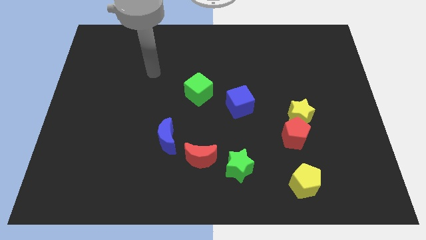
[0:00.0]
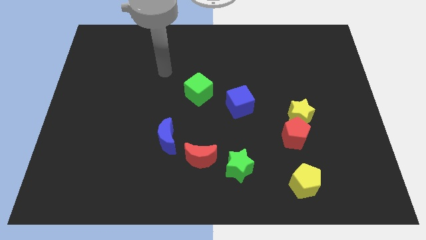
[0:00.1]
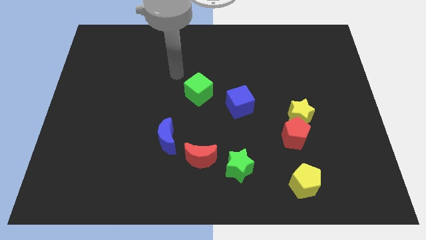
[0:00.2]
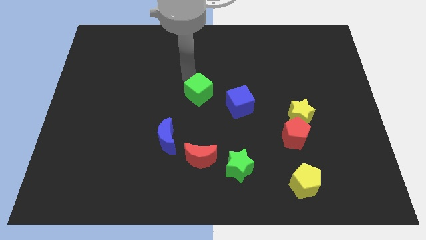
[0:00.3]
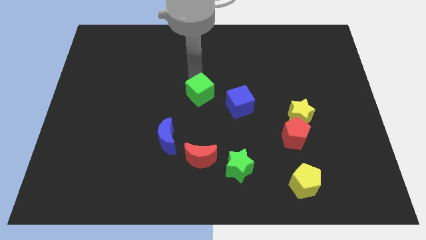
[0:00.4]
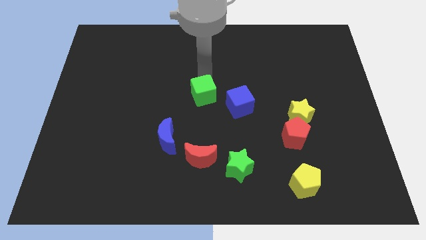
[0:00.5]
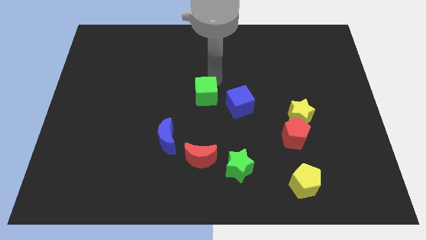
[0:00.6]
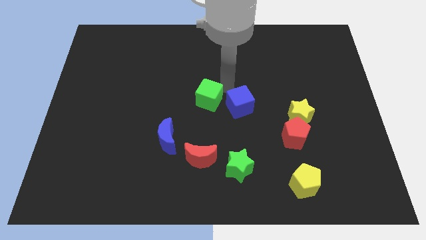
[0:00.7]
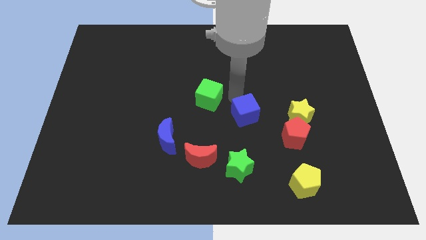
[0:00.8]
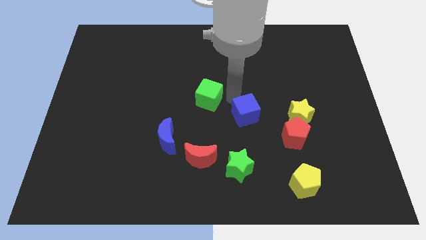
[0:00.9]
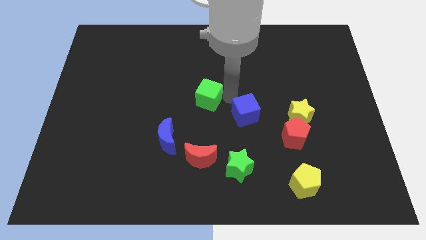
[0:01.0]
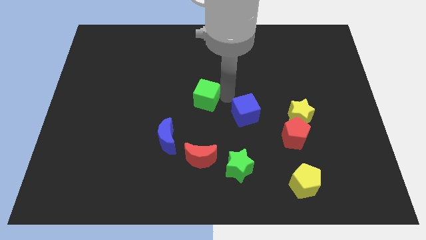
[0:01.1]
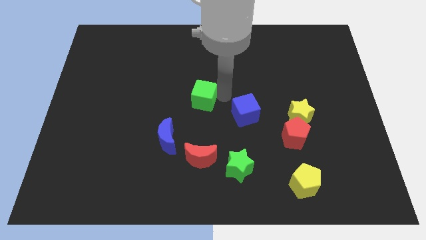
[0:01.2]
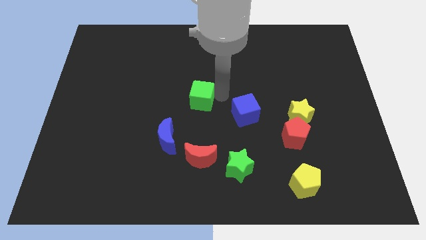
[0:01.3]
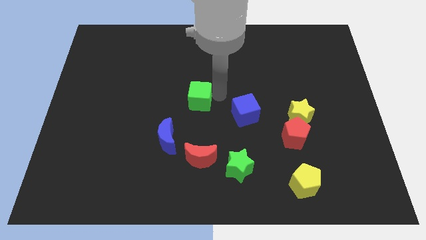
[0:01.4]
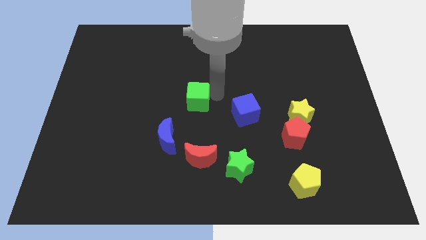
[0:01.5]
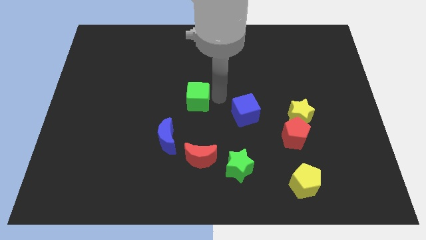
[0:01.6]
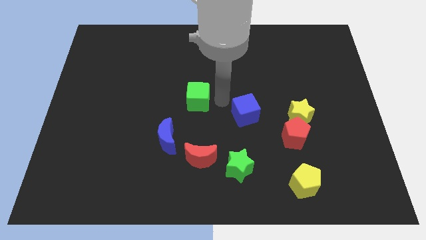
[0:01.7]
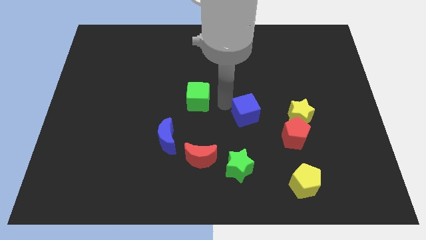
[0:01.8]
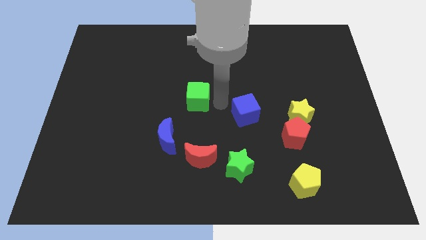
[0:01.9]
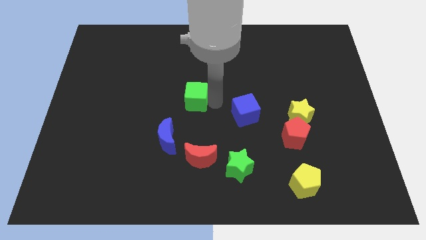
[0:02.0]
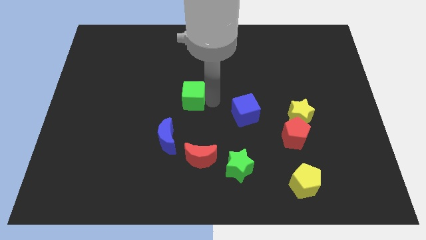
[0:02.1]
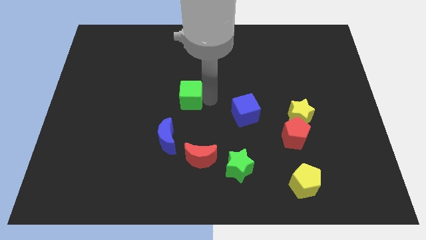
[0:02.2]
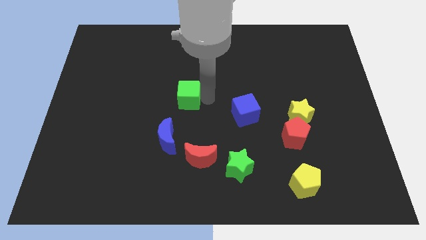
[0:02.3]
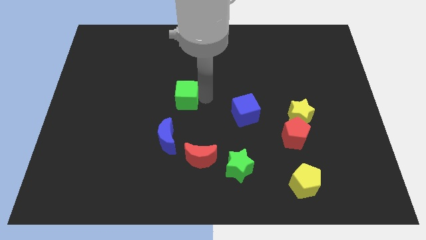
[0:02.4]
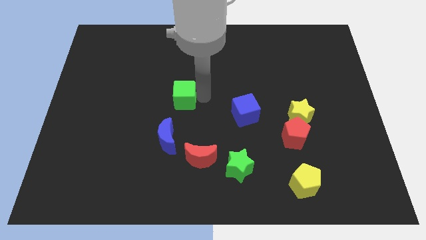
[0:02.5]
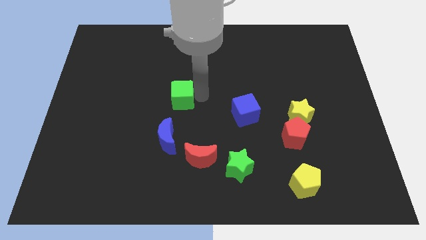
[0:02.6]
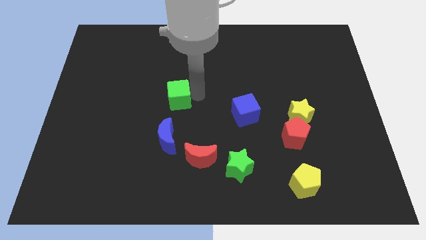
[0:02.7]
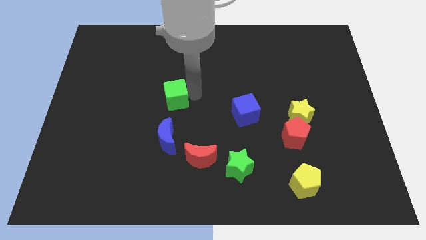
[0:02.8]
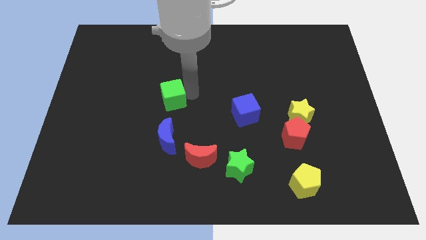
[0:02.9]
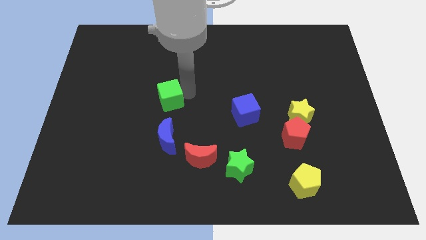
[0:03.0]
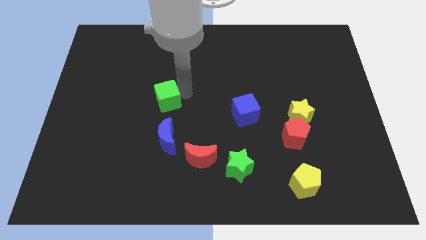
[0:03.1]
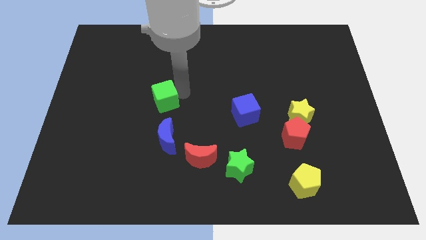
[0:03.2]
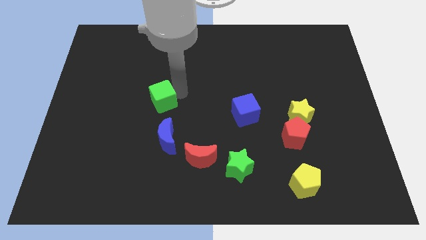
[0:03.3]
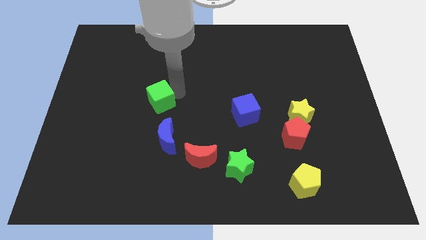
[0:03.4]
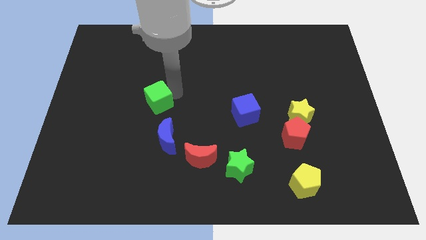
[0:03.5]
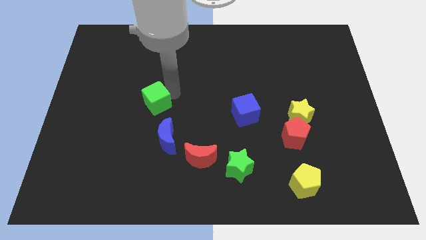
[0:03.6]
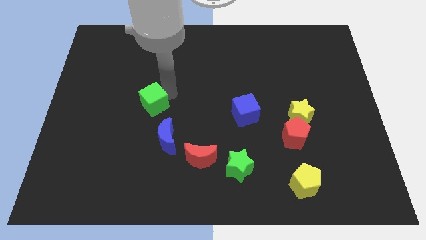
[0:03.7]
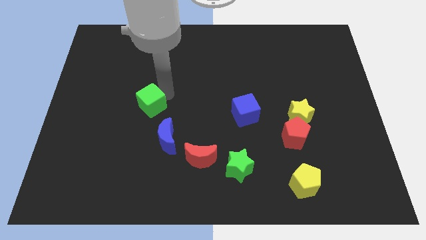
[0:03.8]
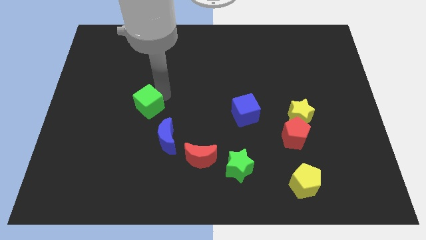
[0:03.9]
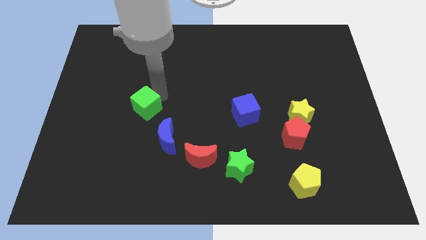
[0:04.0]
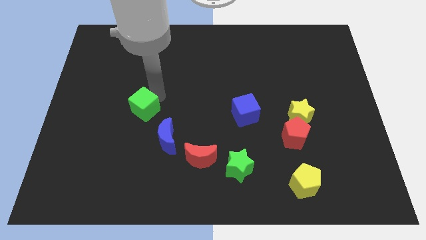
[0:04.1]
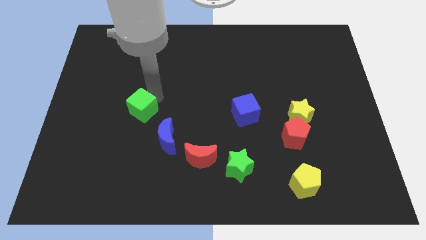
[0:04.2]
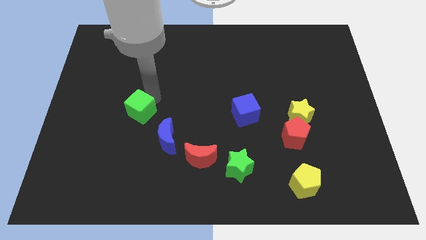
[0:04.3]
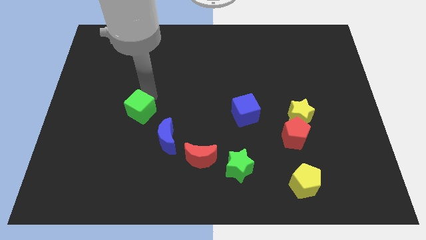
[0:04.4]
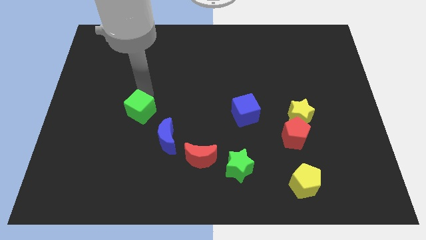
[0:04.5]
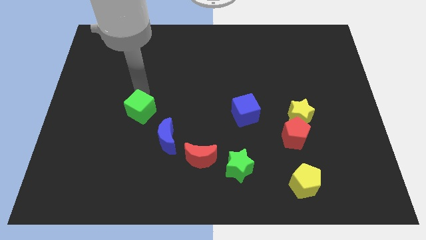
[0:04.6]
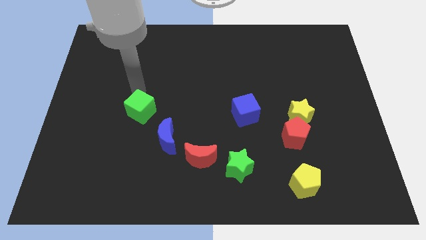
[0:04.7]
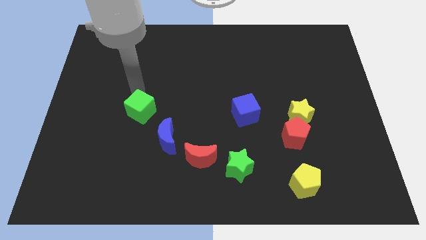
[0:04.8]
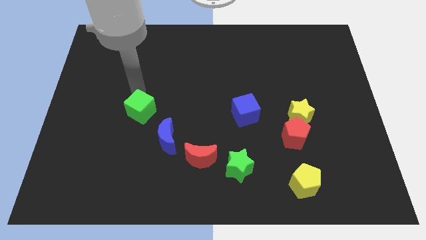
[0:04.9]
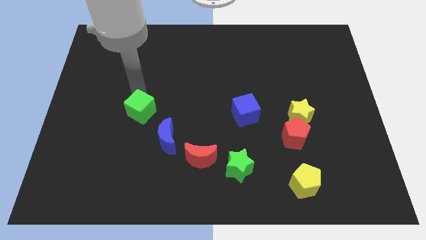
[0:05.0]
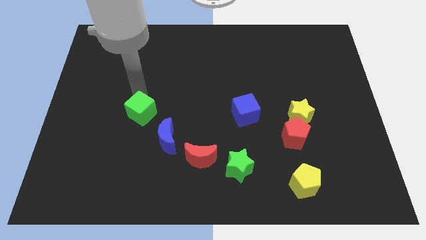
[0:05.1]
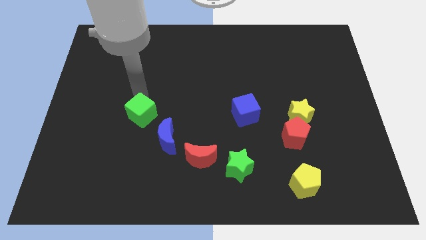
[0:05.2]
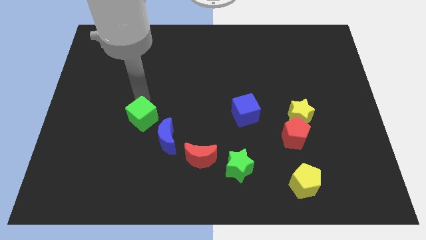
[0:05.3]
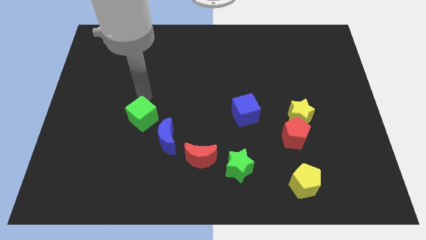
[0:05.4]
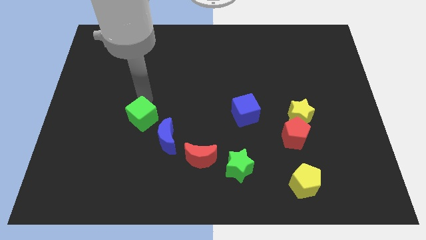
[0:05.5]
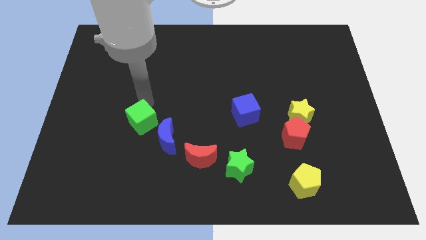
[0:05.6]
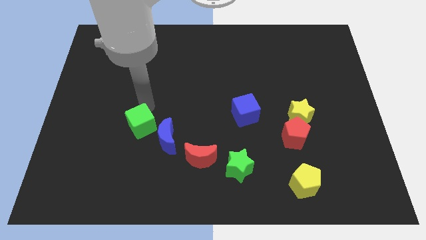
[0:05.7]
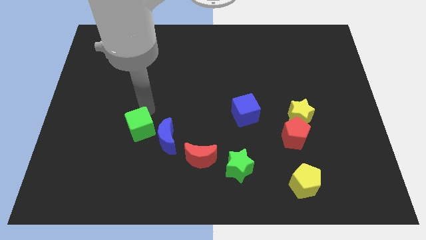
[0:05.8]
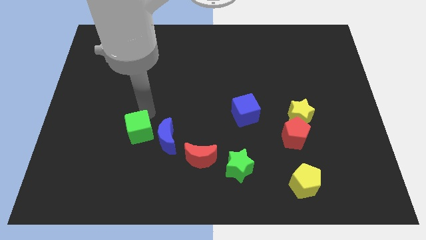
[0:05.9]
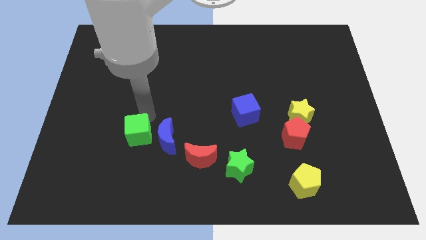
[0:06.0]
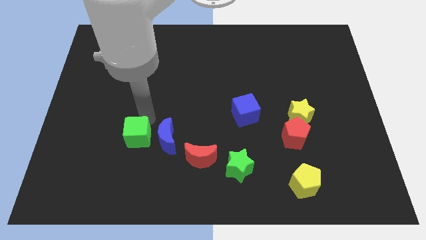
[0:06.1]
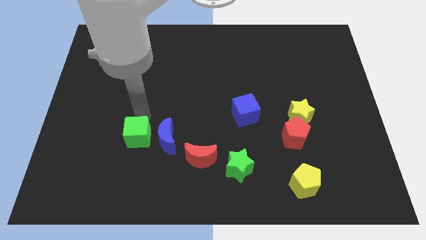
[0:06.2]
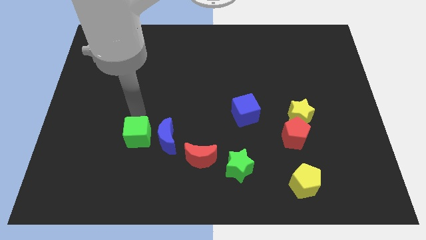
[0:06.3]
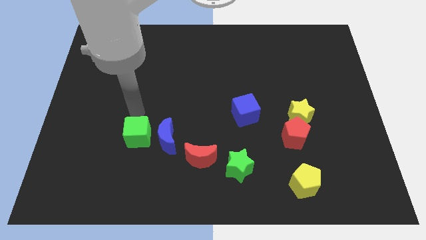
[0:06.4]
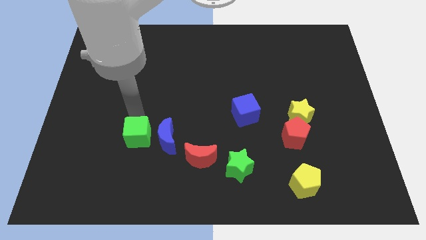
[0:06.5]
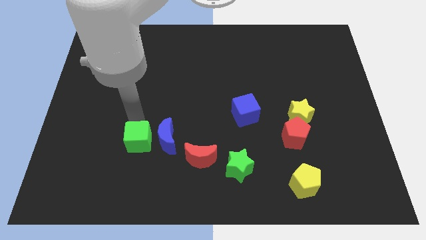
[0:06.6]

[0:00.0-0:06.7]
move the green cube to the bottom left side of the blue moon

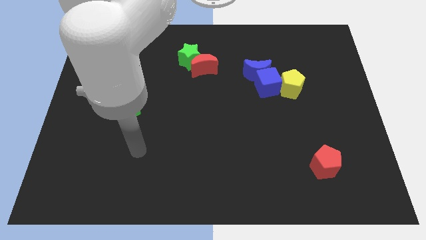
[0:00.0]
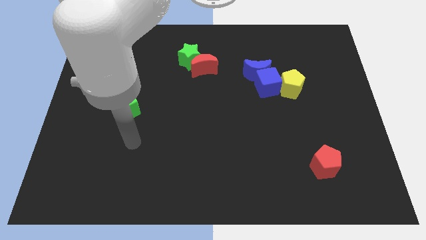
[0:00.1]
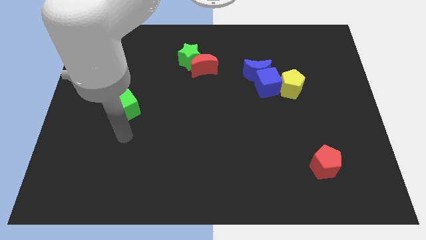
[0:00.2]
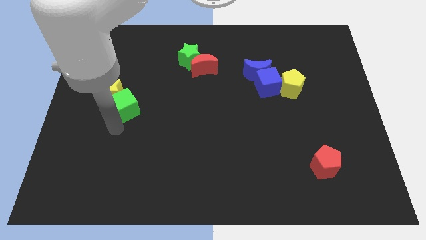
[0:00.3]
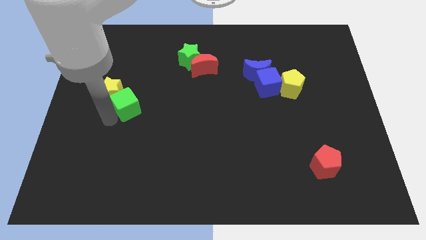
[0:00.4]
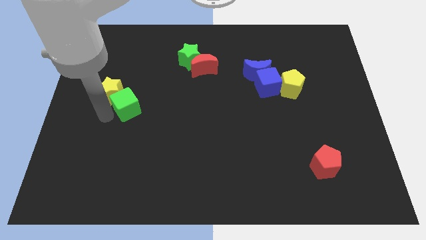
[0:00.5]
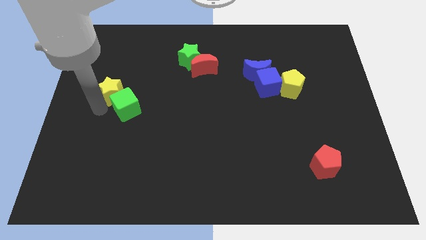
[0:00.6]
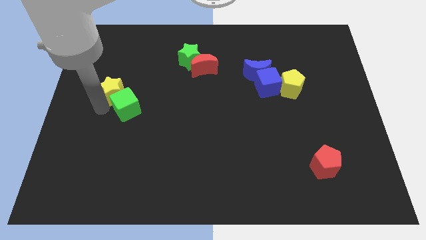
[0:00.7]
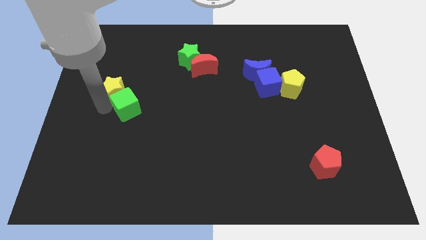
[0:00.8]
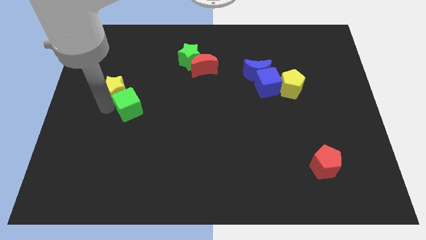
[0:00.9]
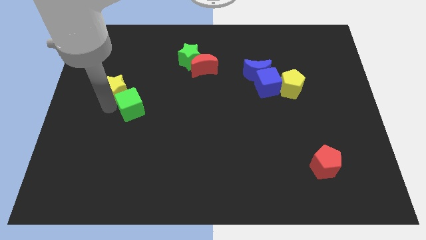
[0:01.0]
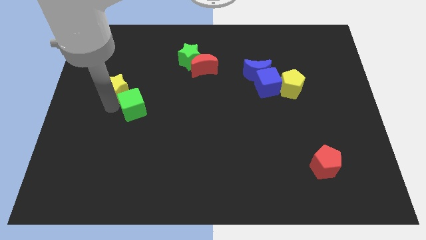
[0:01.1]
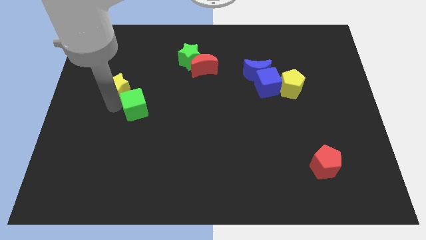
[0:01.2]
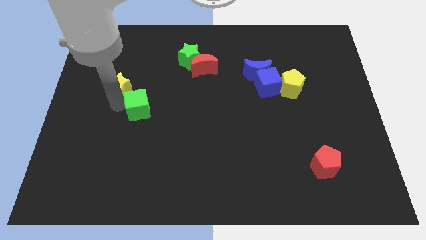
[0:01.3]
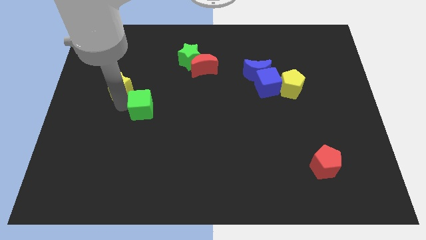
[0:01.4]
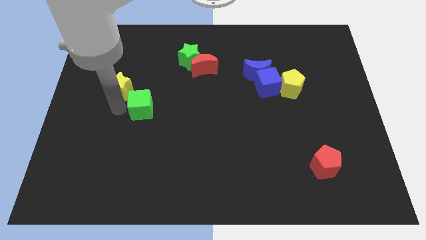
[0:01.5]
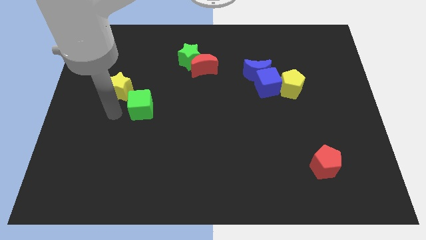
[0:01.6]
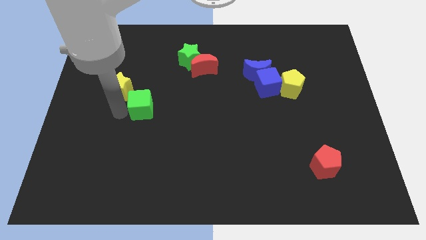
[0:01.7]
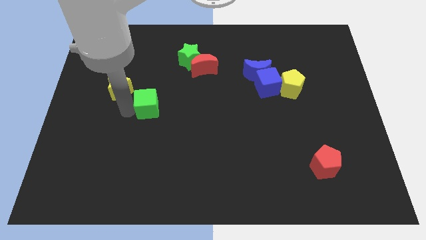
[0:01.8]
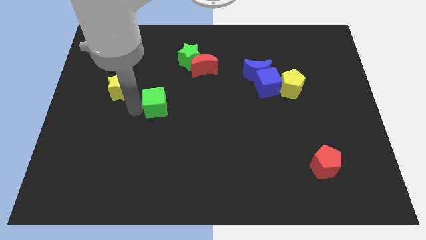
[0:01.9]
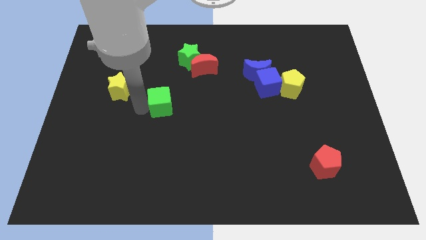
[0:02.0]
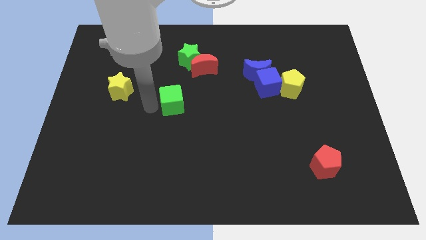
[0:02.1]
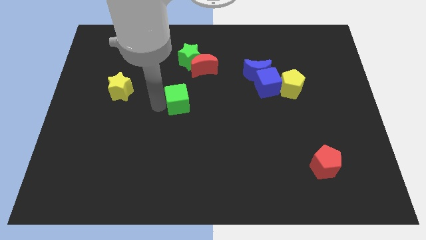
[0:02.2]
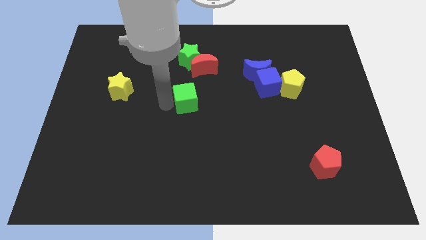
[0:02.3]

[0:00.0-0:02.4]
move the green cube below the red moon
